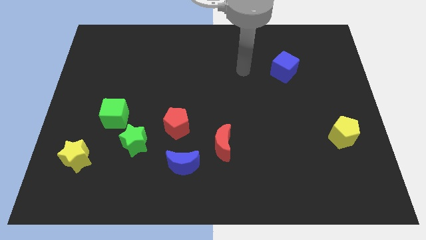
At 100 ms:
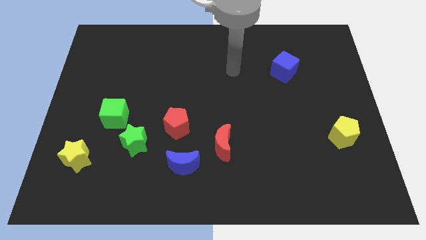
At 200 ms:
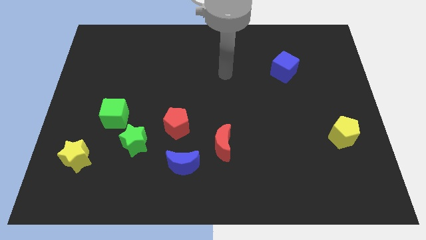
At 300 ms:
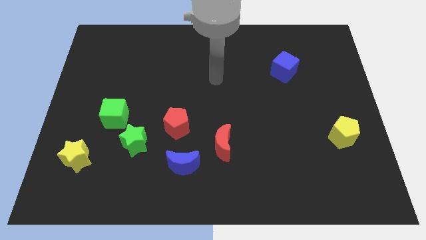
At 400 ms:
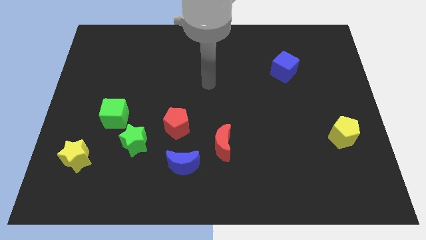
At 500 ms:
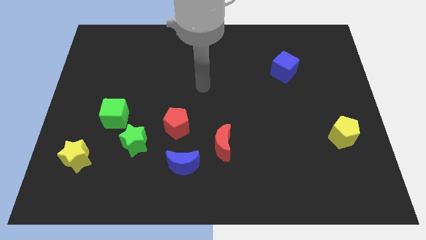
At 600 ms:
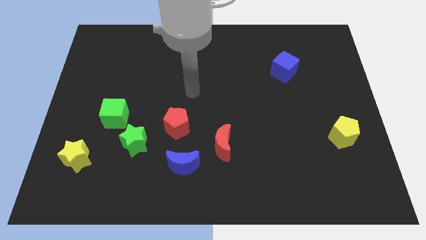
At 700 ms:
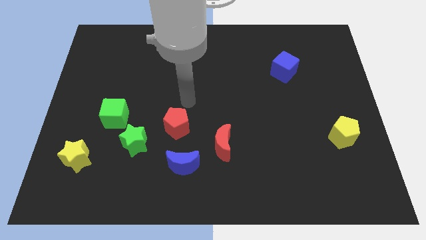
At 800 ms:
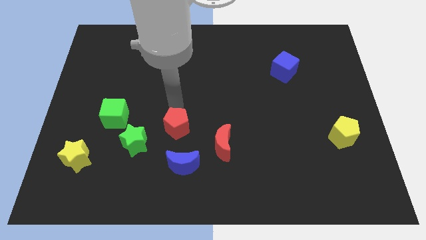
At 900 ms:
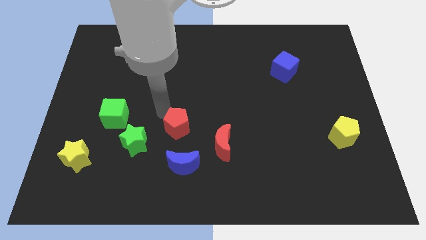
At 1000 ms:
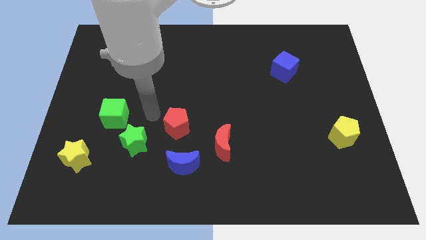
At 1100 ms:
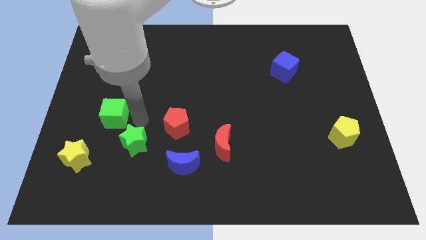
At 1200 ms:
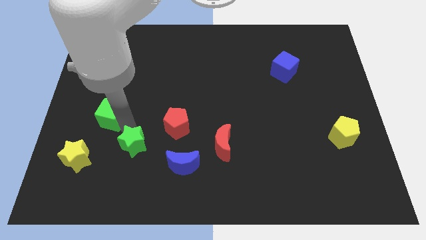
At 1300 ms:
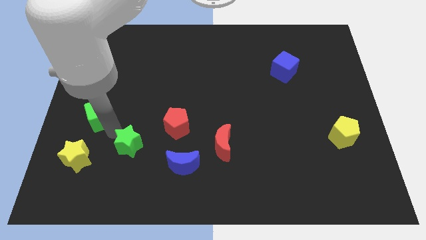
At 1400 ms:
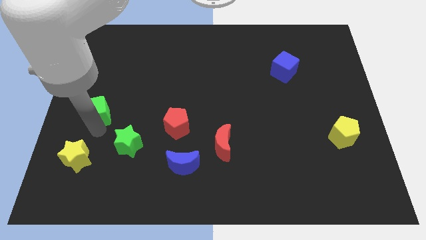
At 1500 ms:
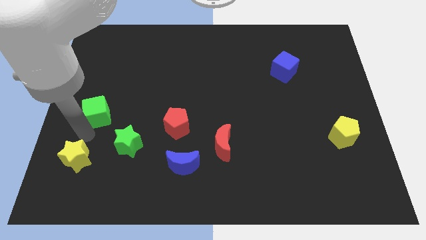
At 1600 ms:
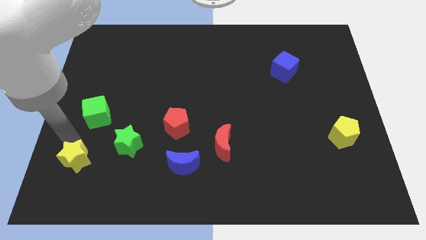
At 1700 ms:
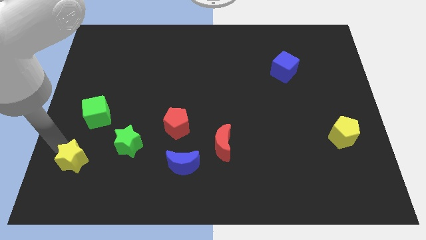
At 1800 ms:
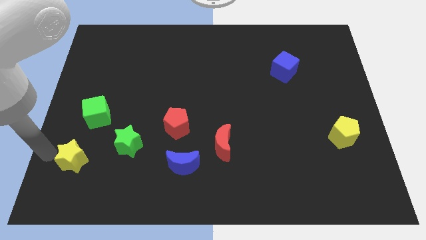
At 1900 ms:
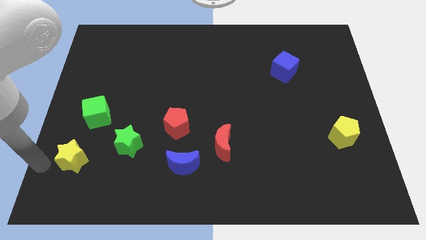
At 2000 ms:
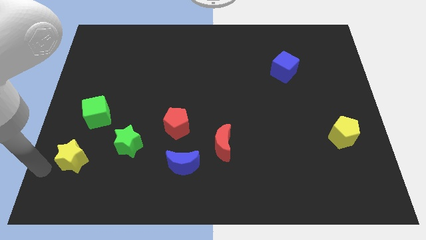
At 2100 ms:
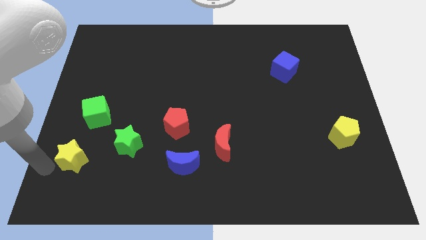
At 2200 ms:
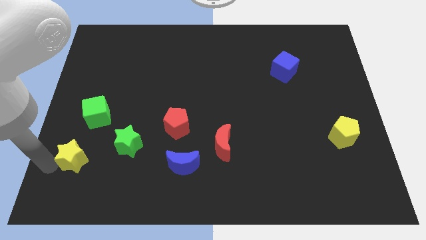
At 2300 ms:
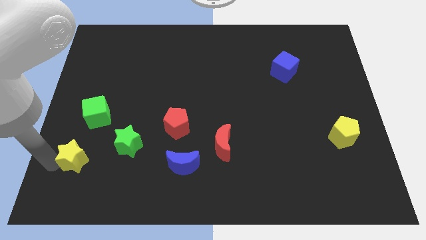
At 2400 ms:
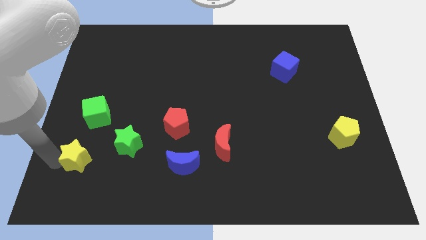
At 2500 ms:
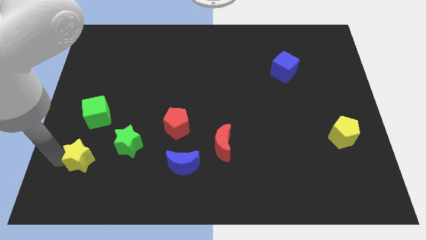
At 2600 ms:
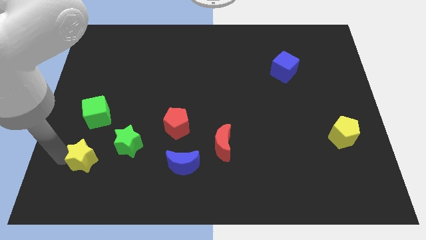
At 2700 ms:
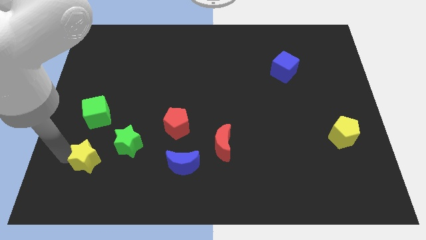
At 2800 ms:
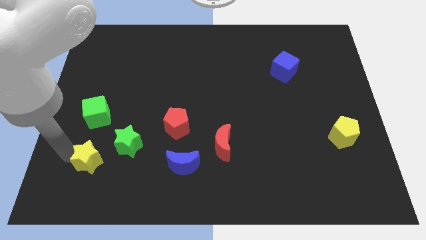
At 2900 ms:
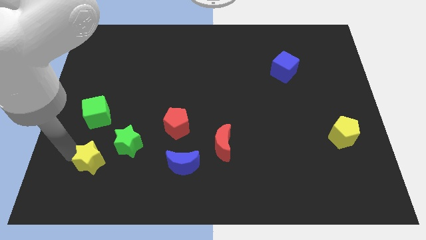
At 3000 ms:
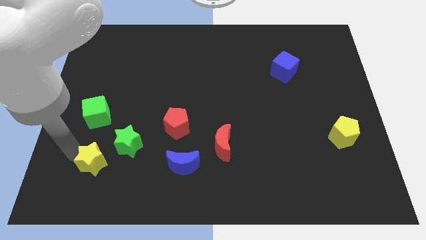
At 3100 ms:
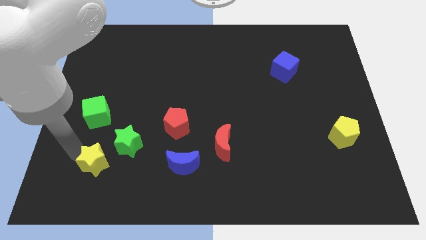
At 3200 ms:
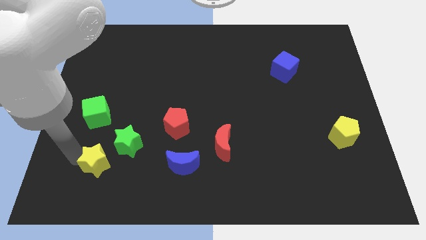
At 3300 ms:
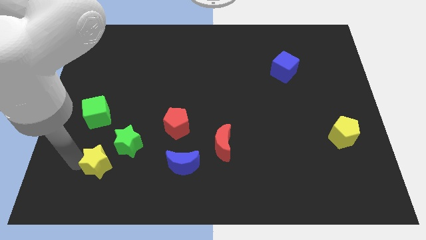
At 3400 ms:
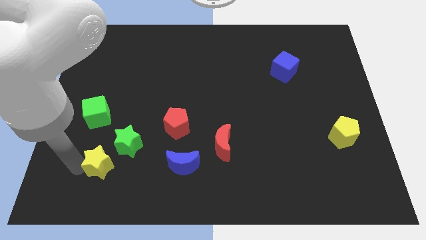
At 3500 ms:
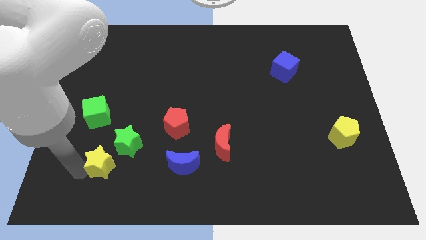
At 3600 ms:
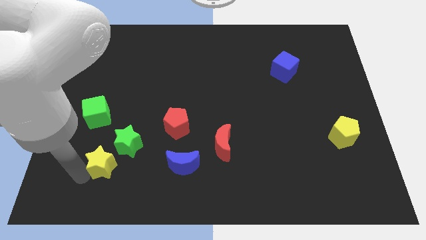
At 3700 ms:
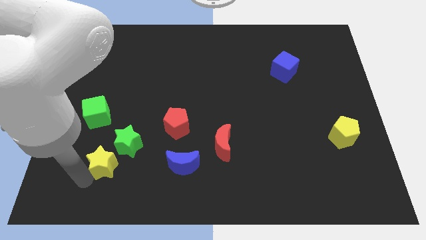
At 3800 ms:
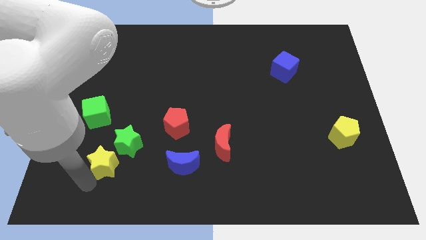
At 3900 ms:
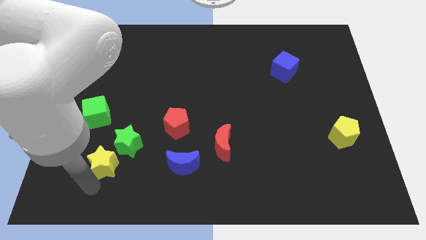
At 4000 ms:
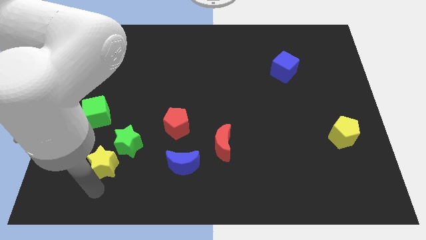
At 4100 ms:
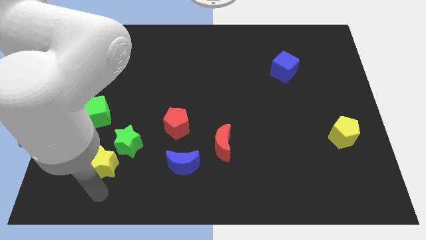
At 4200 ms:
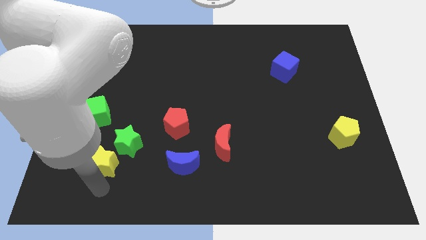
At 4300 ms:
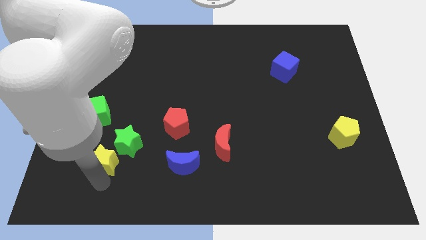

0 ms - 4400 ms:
push the yellow star to the green star

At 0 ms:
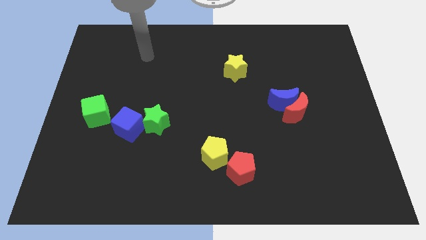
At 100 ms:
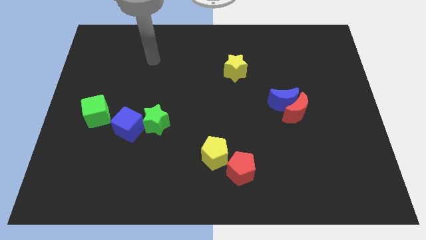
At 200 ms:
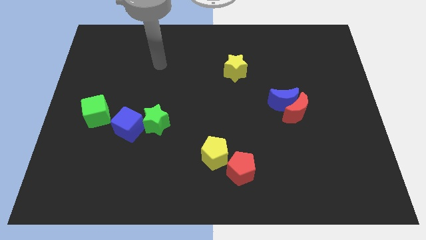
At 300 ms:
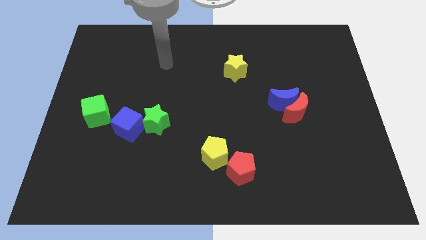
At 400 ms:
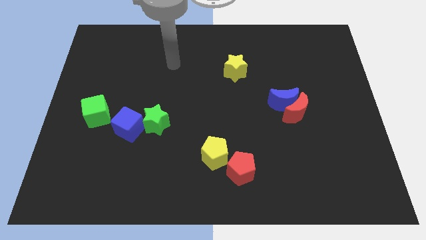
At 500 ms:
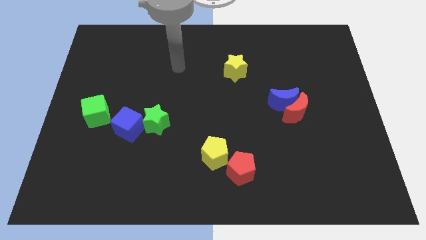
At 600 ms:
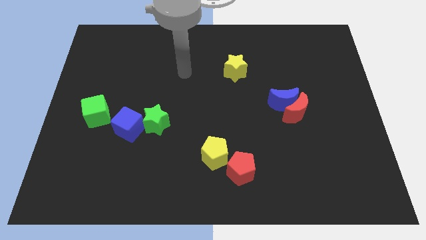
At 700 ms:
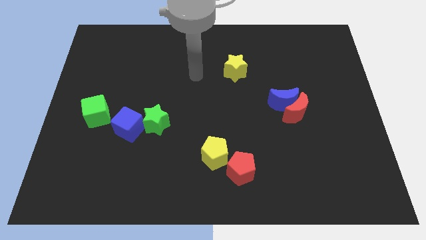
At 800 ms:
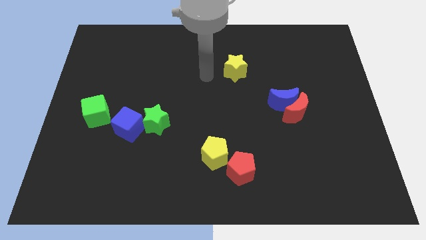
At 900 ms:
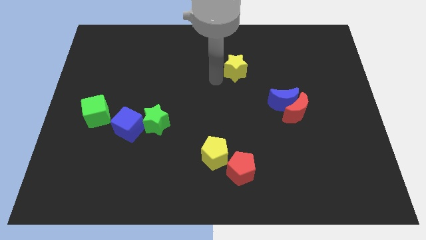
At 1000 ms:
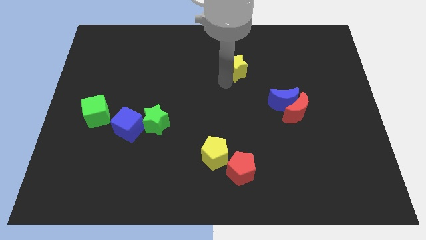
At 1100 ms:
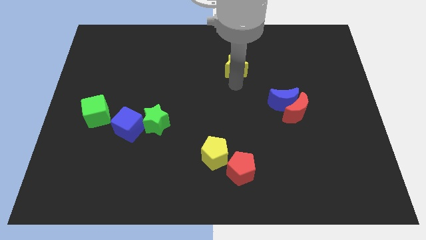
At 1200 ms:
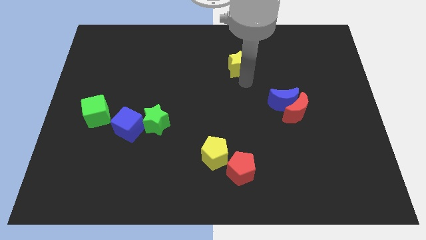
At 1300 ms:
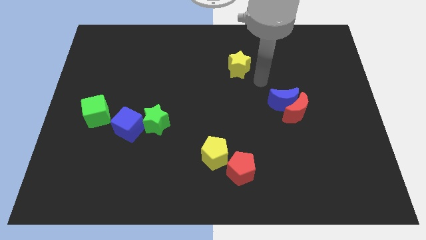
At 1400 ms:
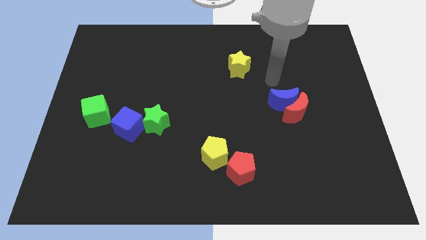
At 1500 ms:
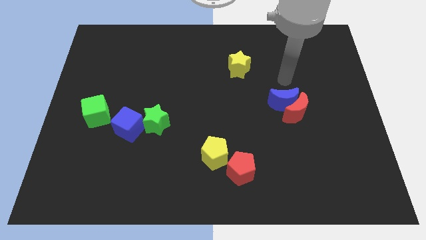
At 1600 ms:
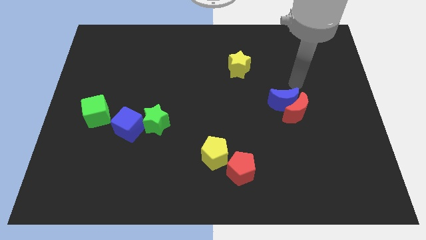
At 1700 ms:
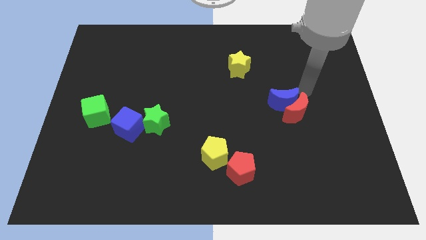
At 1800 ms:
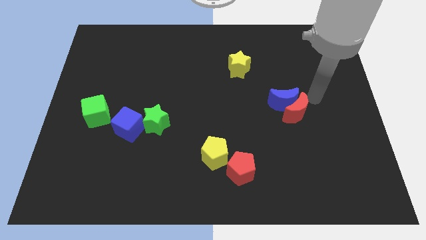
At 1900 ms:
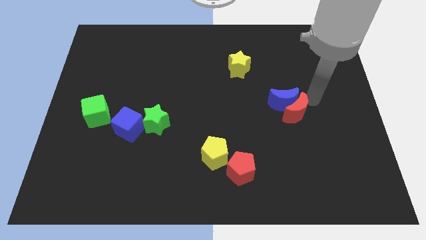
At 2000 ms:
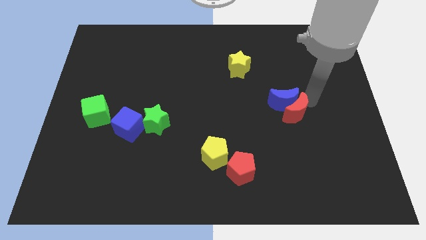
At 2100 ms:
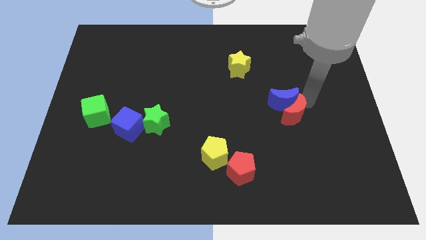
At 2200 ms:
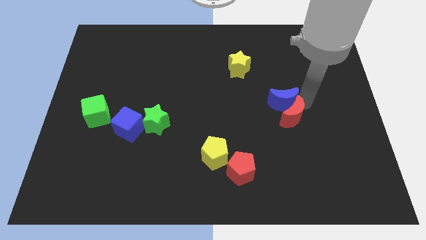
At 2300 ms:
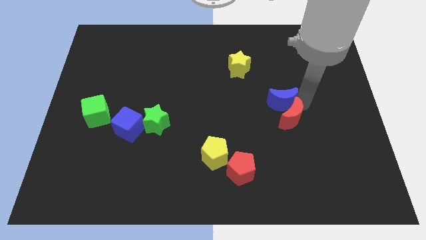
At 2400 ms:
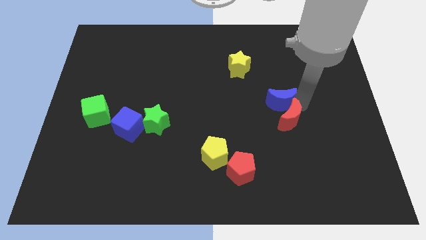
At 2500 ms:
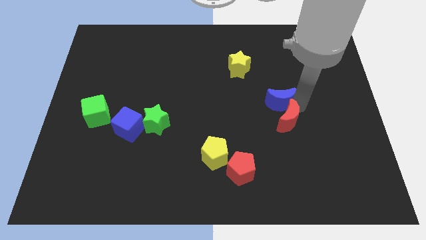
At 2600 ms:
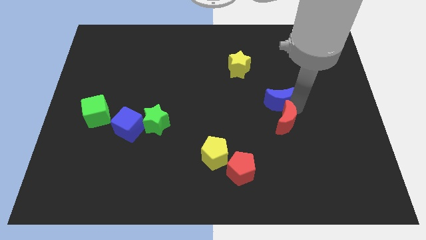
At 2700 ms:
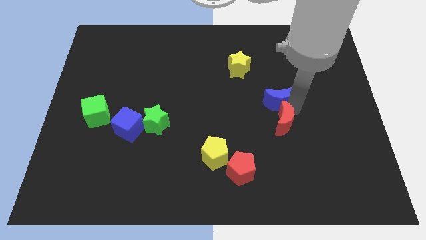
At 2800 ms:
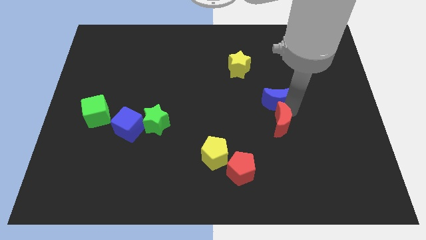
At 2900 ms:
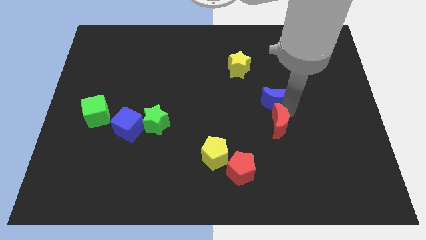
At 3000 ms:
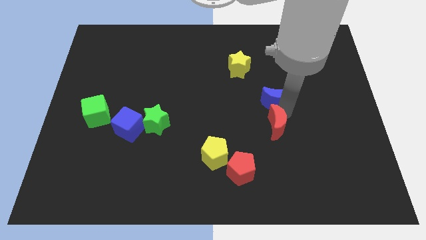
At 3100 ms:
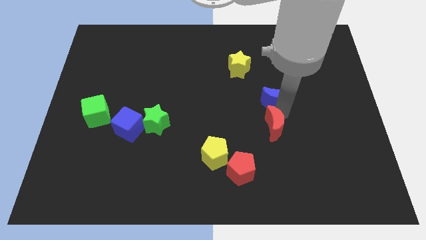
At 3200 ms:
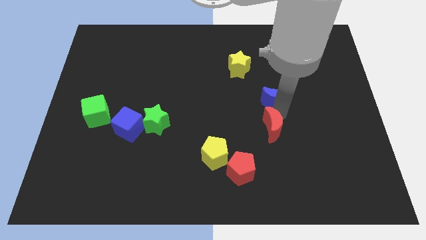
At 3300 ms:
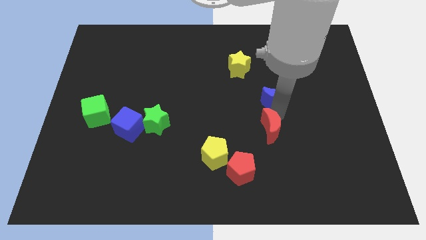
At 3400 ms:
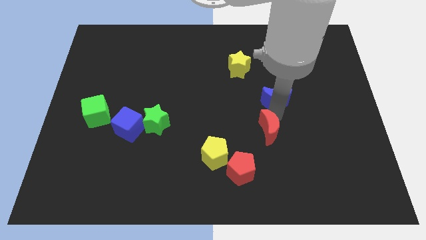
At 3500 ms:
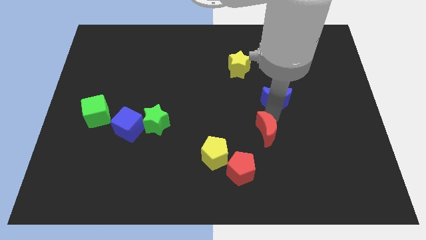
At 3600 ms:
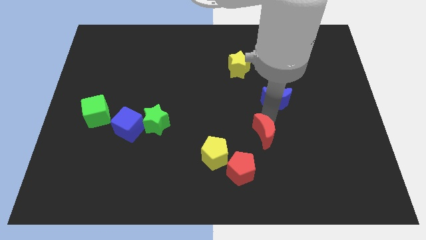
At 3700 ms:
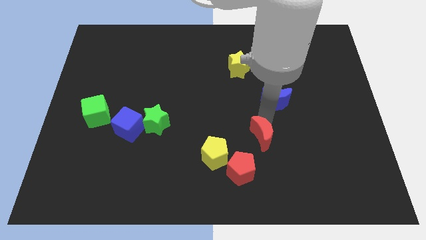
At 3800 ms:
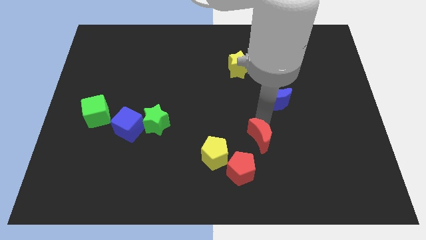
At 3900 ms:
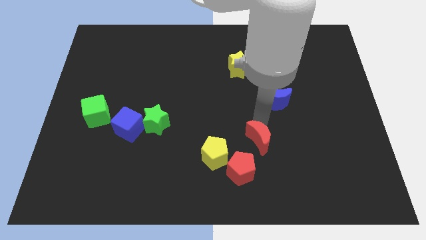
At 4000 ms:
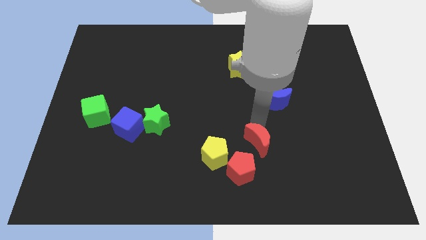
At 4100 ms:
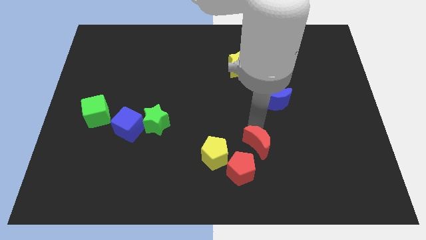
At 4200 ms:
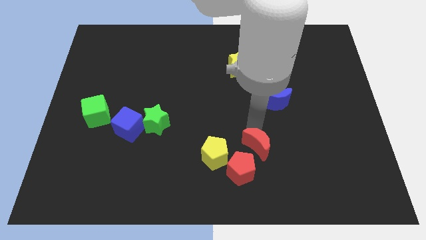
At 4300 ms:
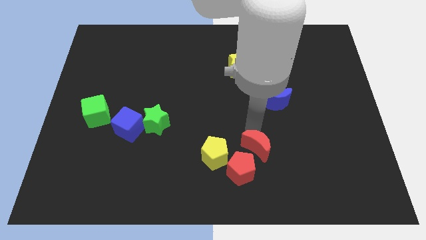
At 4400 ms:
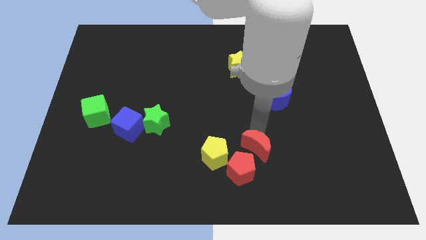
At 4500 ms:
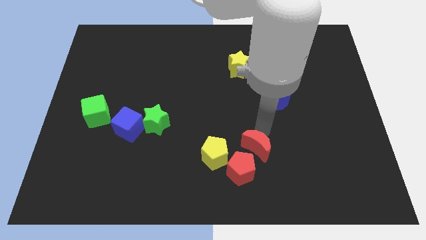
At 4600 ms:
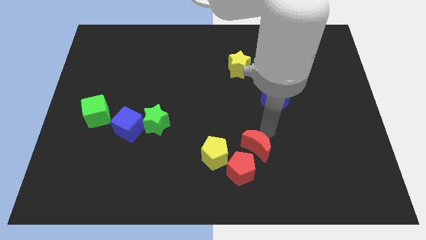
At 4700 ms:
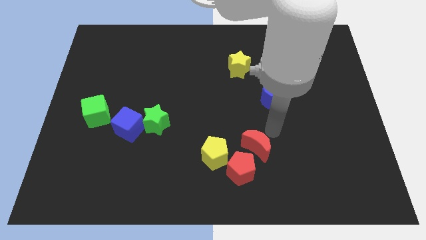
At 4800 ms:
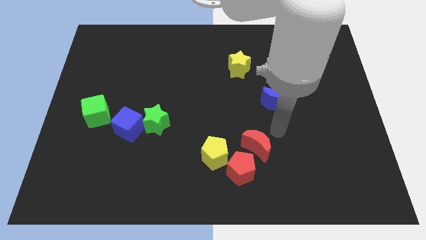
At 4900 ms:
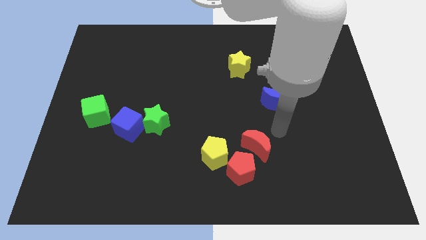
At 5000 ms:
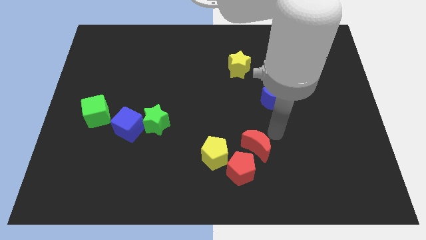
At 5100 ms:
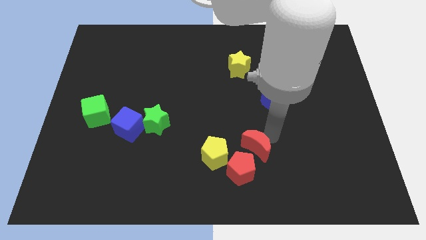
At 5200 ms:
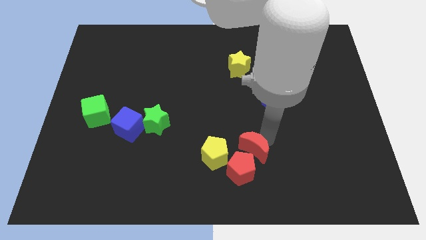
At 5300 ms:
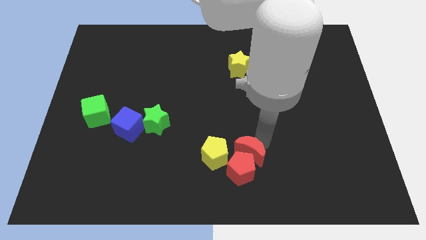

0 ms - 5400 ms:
move the red moon close to the red pentagon
